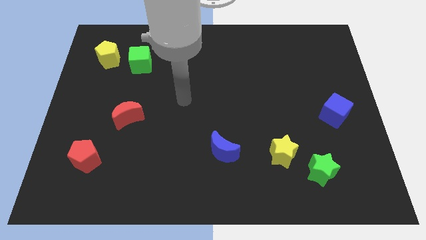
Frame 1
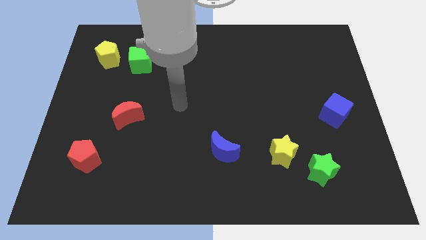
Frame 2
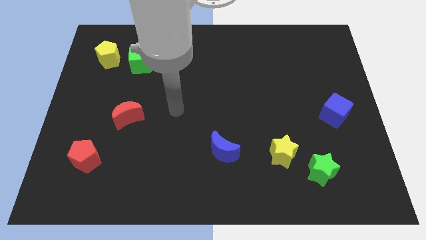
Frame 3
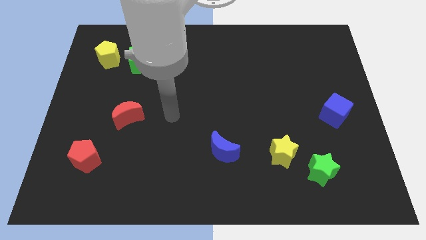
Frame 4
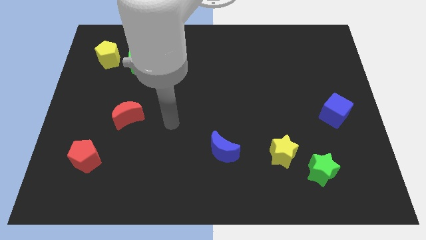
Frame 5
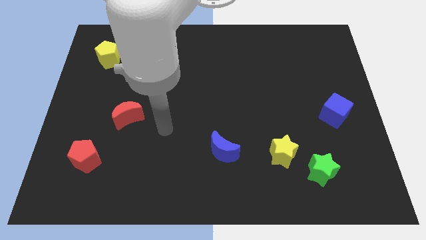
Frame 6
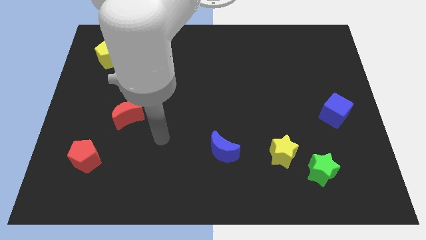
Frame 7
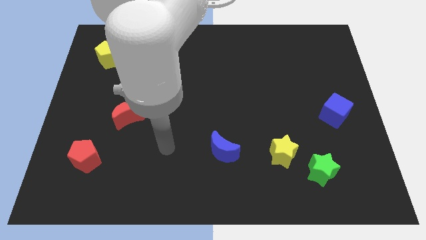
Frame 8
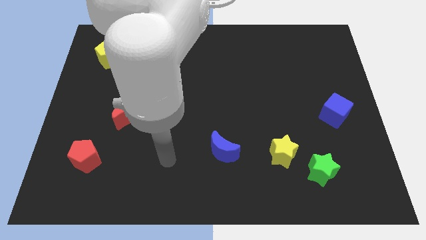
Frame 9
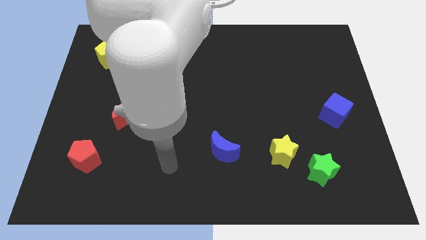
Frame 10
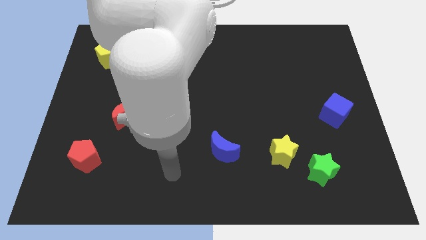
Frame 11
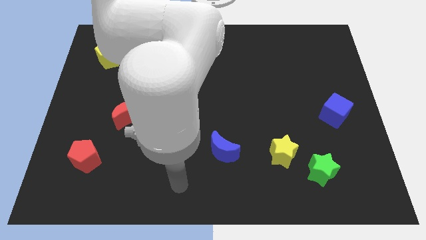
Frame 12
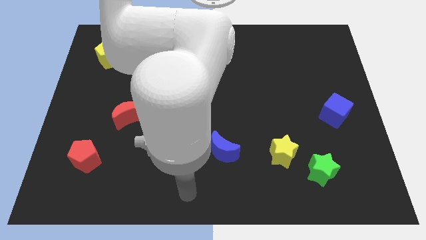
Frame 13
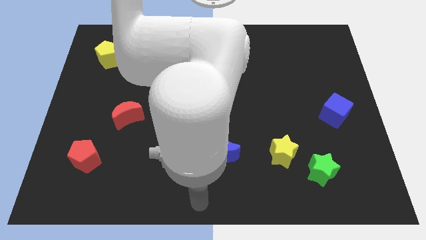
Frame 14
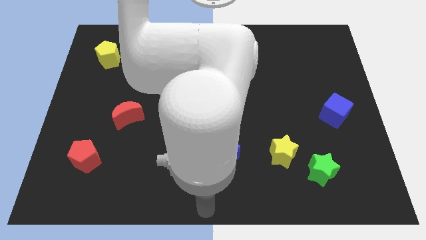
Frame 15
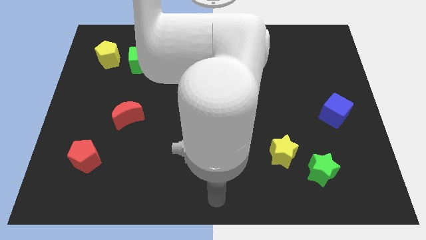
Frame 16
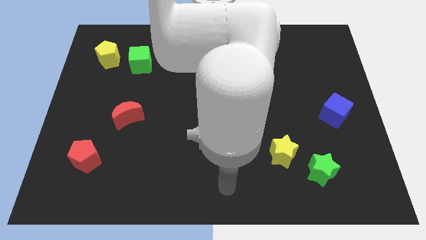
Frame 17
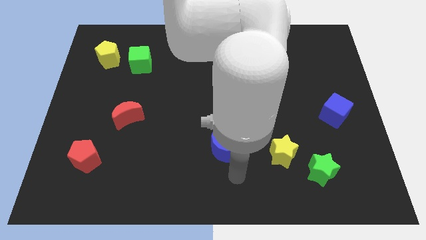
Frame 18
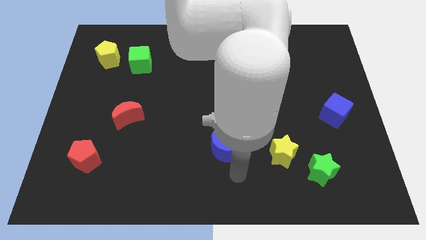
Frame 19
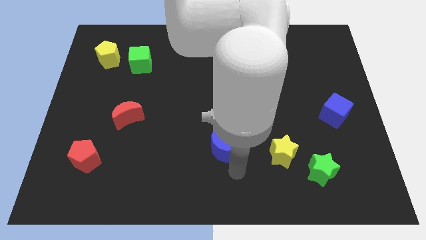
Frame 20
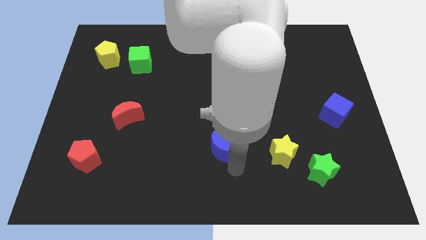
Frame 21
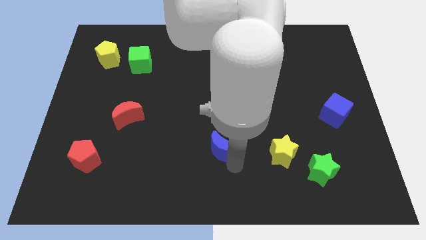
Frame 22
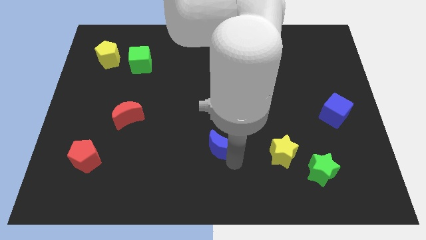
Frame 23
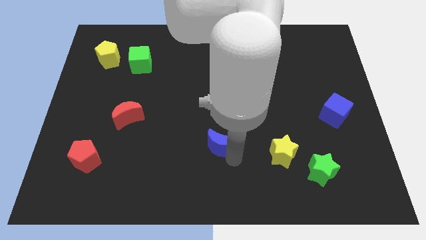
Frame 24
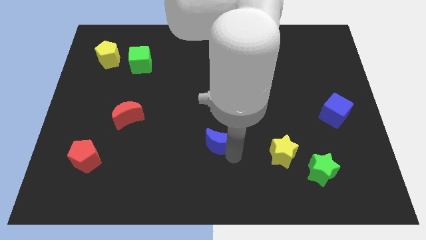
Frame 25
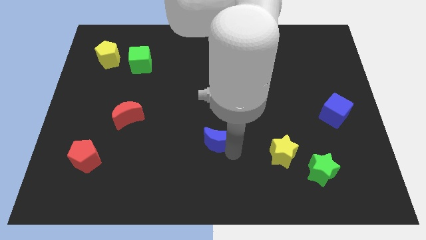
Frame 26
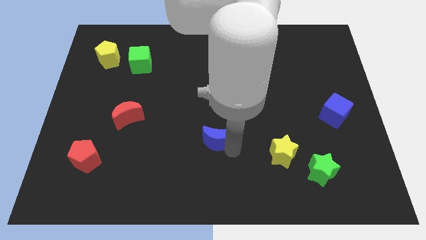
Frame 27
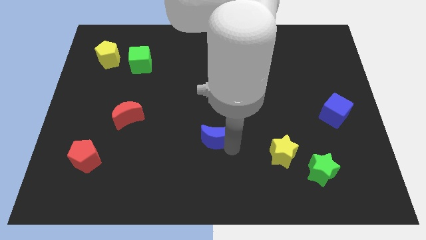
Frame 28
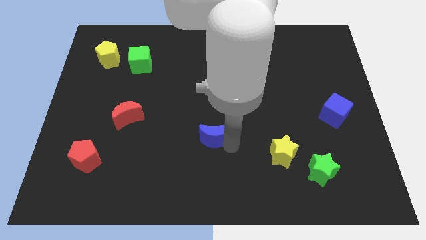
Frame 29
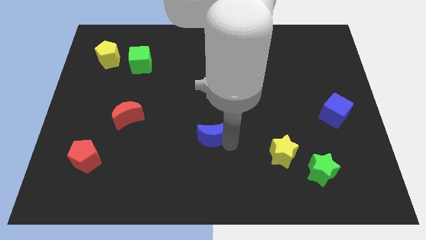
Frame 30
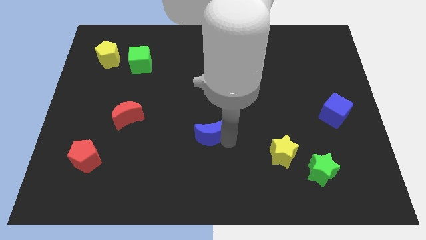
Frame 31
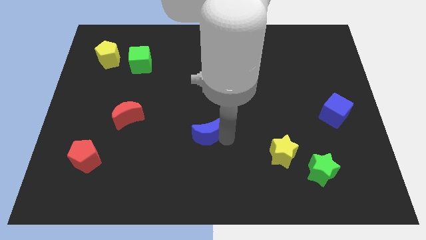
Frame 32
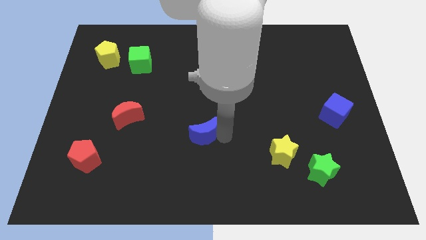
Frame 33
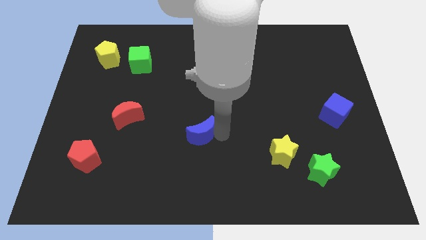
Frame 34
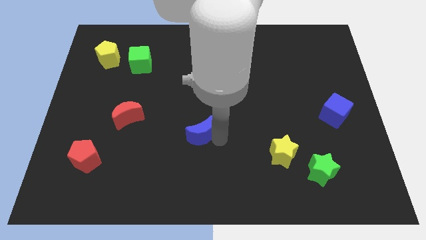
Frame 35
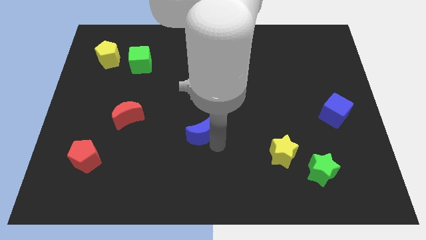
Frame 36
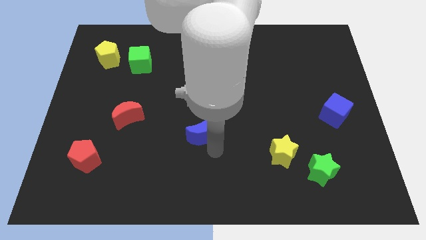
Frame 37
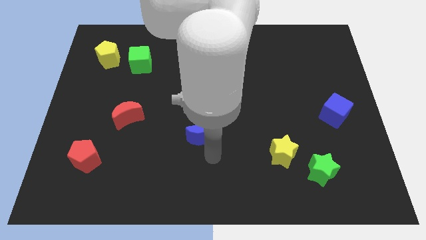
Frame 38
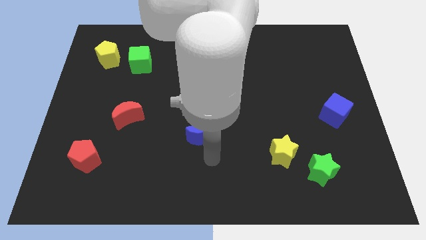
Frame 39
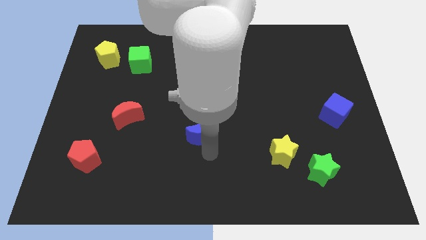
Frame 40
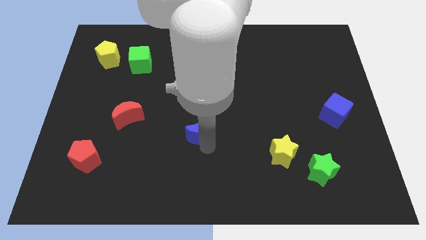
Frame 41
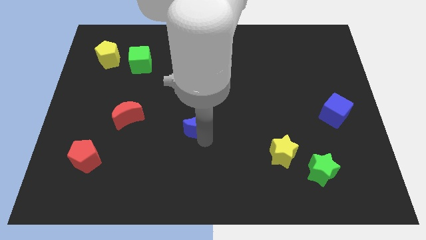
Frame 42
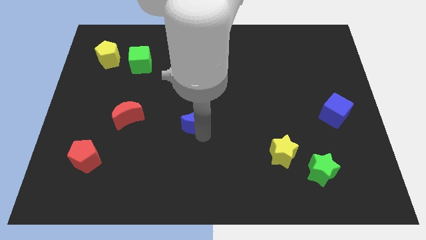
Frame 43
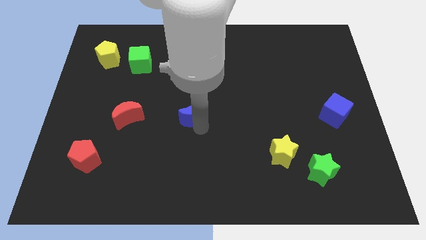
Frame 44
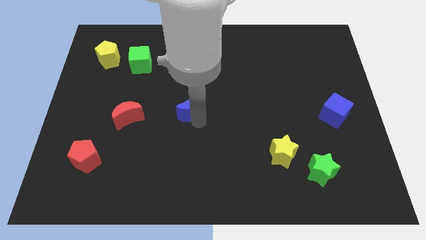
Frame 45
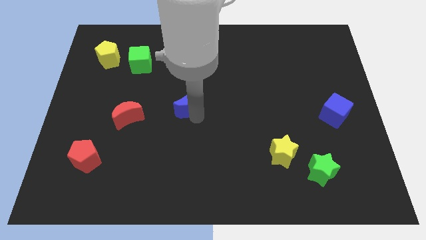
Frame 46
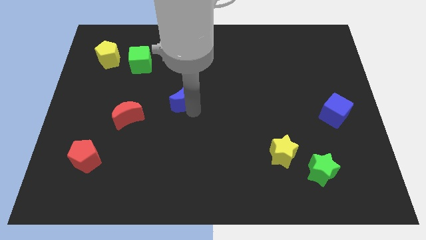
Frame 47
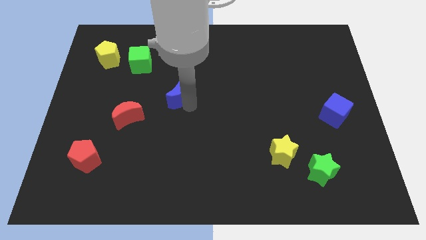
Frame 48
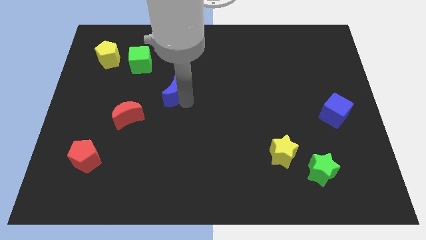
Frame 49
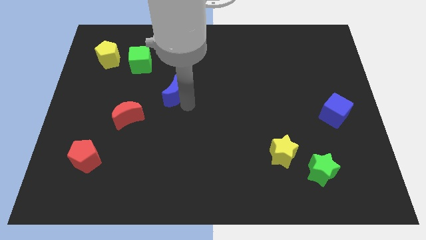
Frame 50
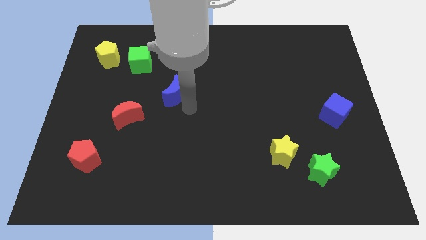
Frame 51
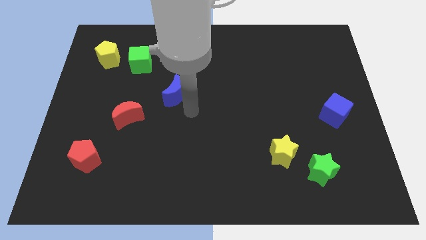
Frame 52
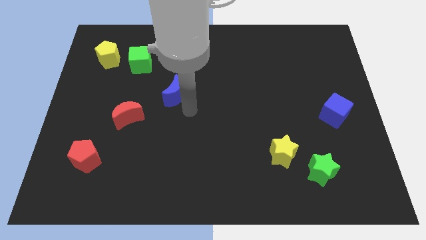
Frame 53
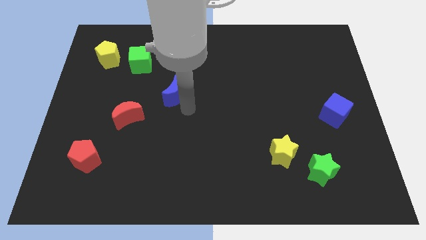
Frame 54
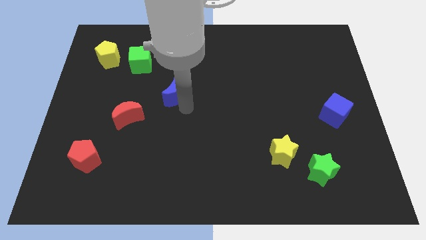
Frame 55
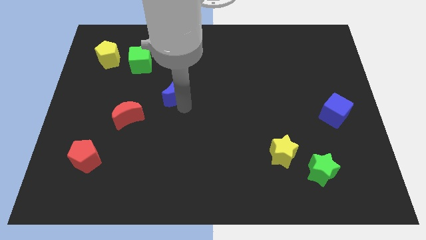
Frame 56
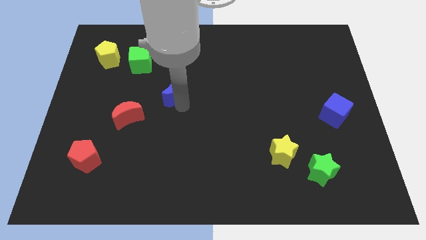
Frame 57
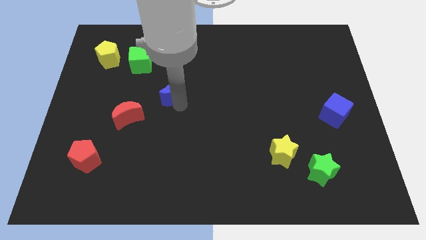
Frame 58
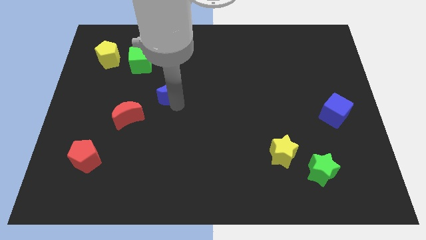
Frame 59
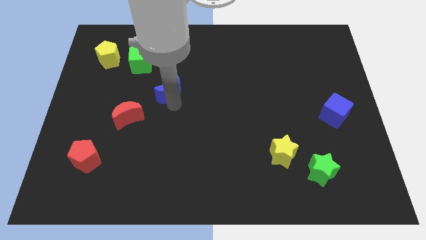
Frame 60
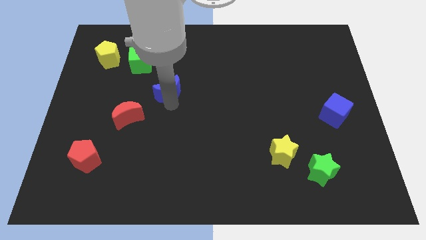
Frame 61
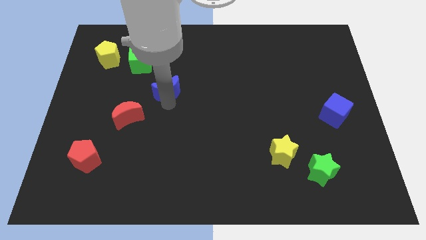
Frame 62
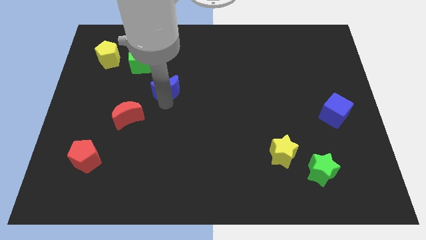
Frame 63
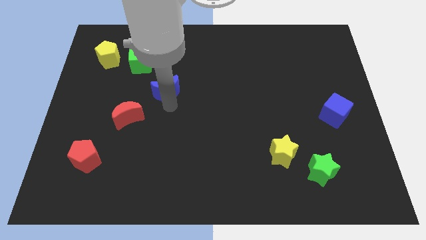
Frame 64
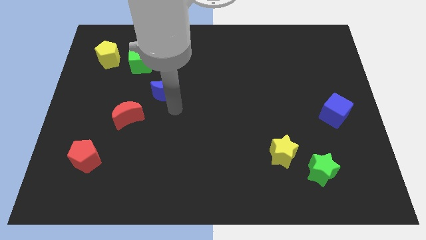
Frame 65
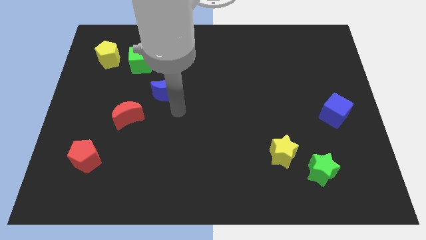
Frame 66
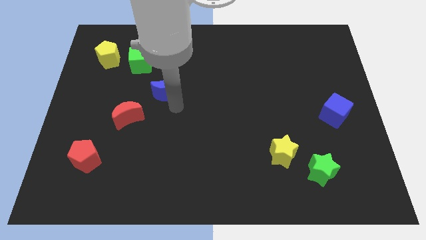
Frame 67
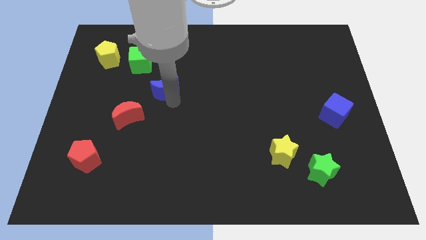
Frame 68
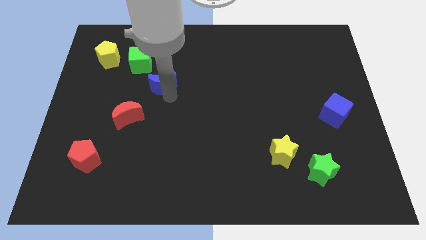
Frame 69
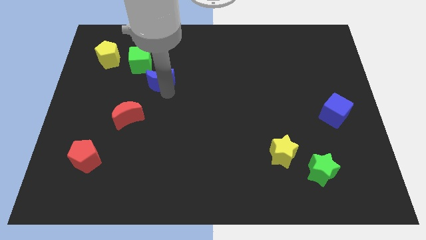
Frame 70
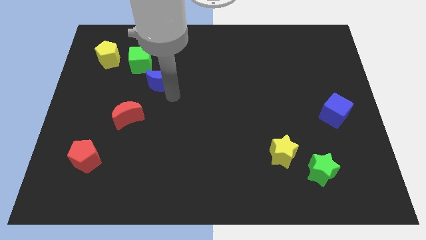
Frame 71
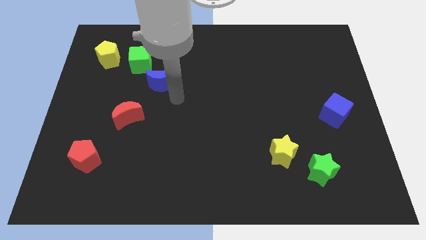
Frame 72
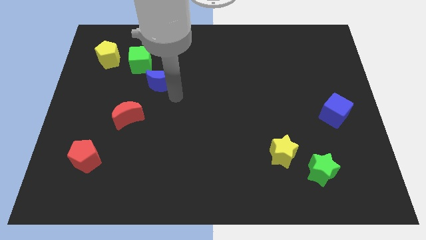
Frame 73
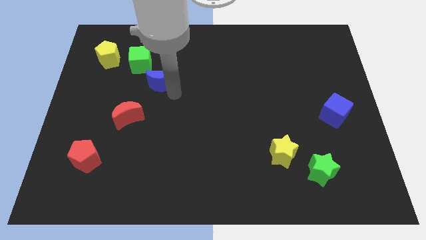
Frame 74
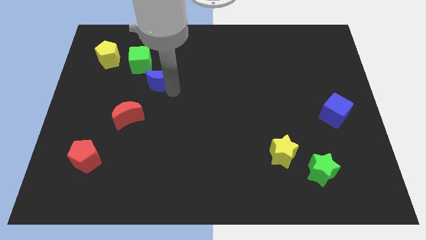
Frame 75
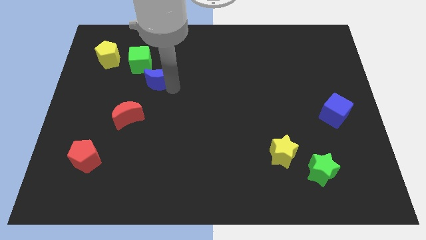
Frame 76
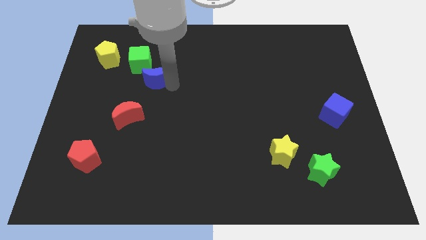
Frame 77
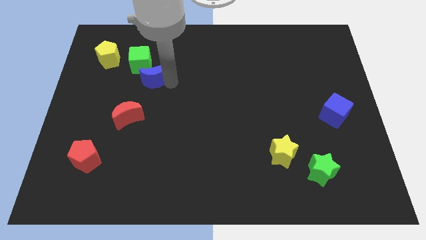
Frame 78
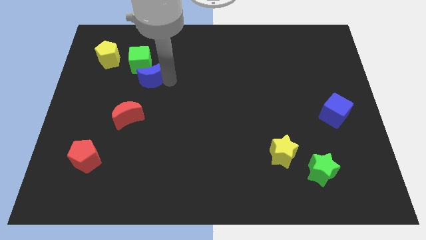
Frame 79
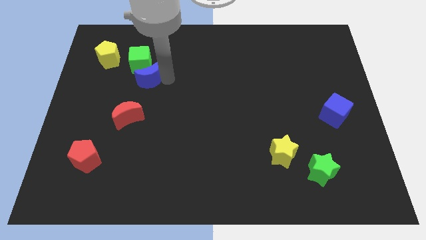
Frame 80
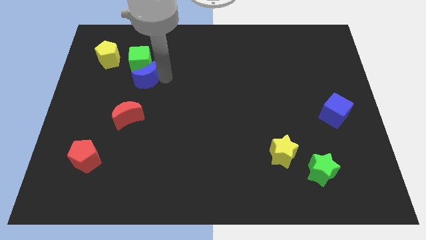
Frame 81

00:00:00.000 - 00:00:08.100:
put the blue moon close to the green cube
